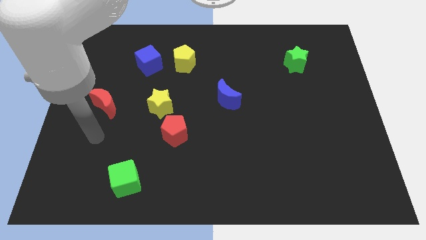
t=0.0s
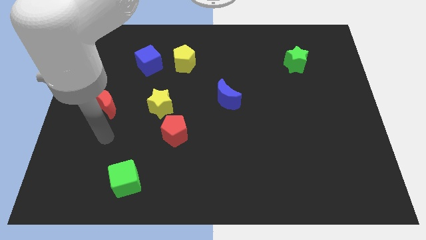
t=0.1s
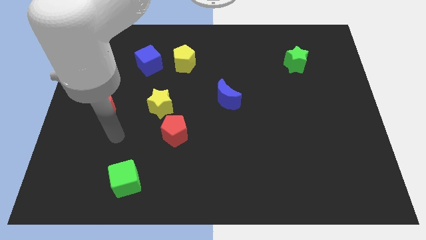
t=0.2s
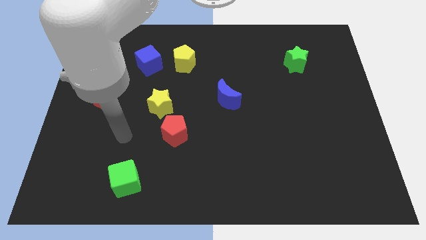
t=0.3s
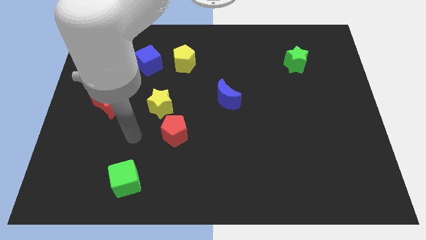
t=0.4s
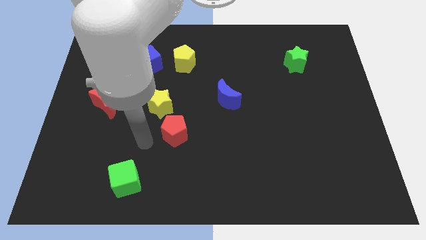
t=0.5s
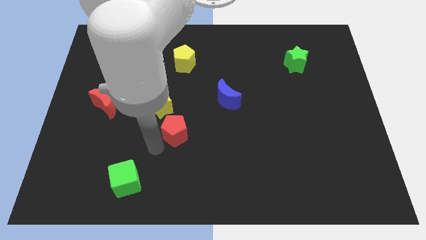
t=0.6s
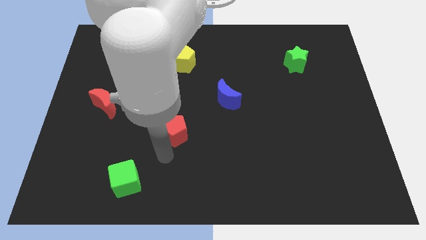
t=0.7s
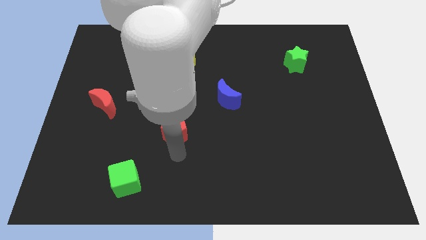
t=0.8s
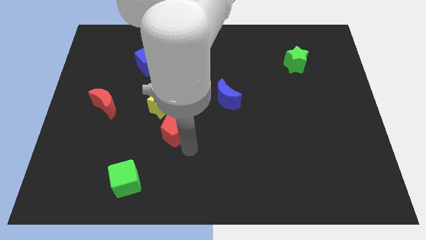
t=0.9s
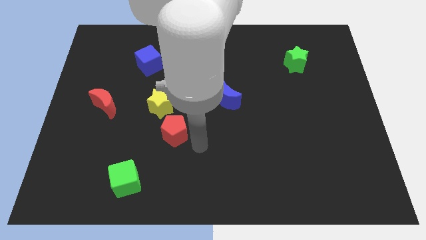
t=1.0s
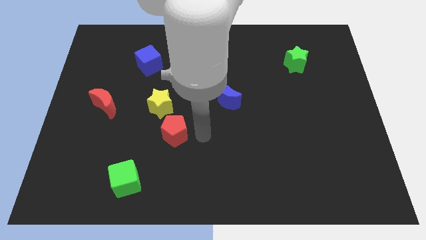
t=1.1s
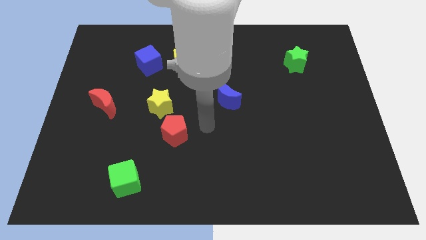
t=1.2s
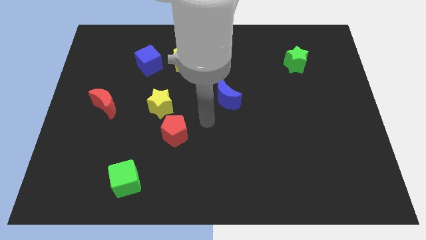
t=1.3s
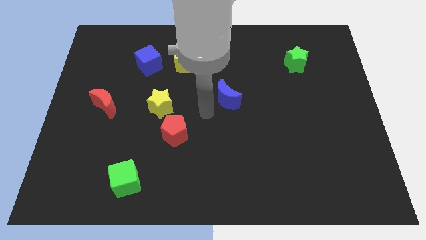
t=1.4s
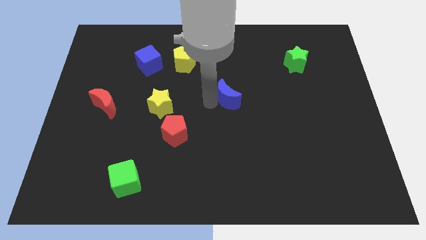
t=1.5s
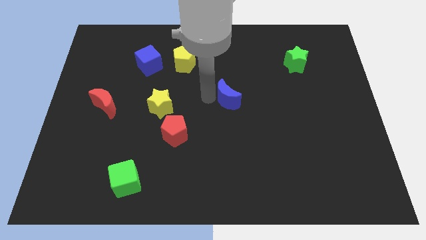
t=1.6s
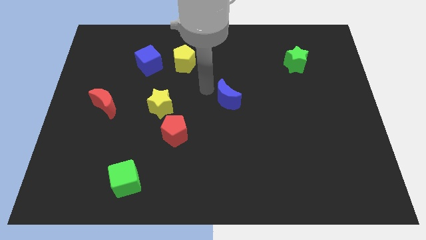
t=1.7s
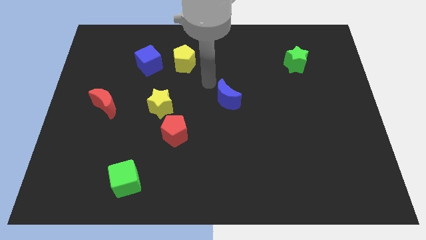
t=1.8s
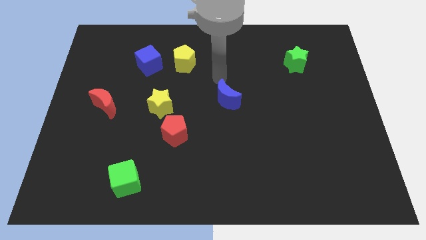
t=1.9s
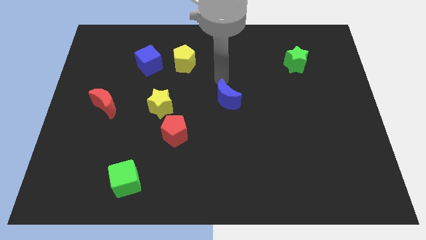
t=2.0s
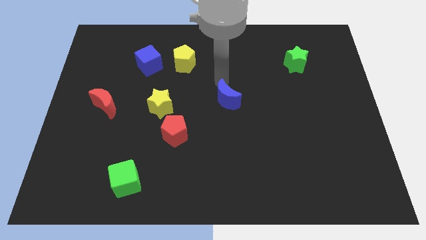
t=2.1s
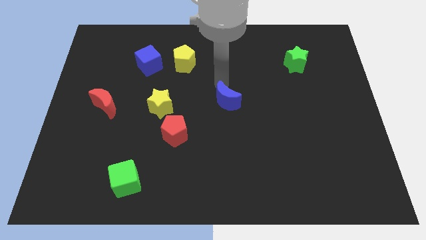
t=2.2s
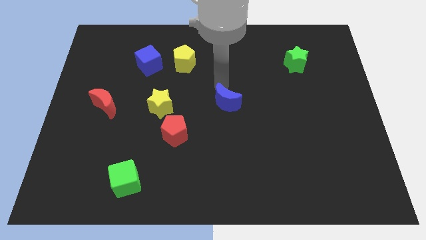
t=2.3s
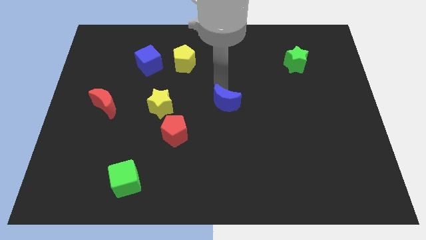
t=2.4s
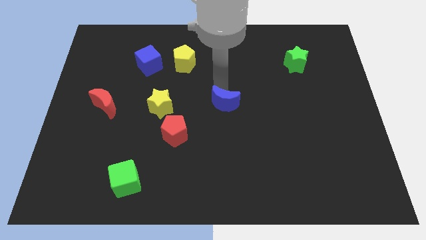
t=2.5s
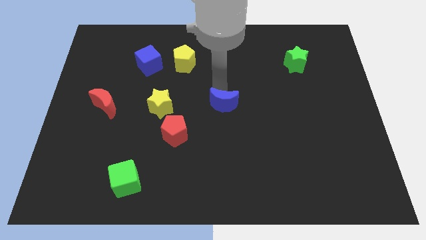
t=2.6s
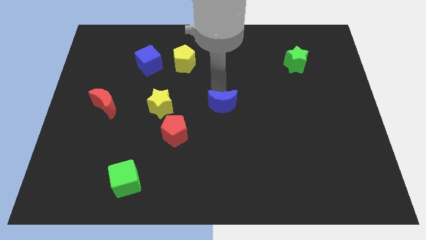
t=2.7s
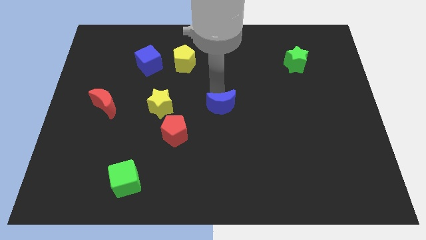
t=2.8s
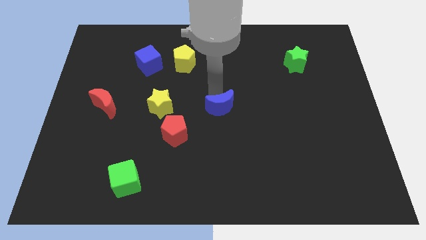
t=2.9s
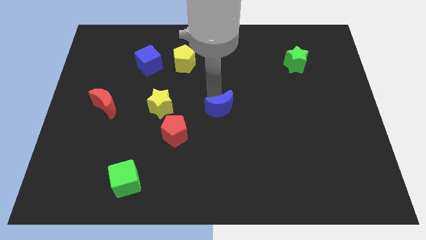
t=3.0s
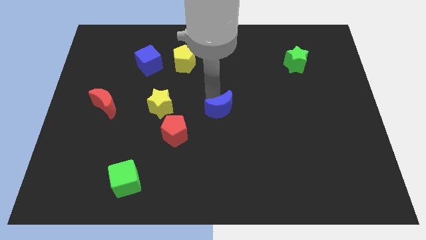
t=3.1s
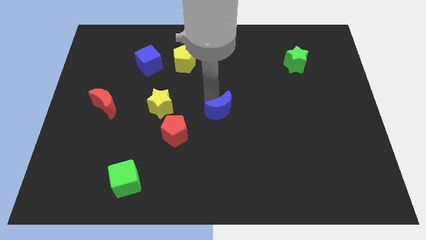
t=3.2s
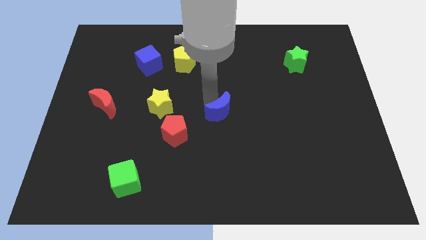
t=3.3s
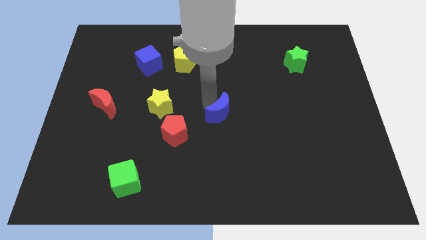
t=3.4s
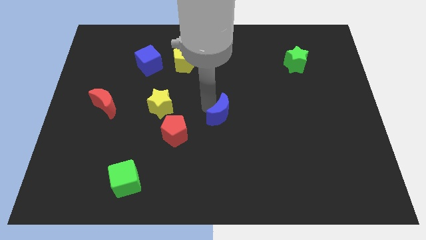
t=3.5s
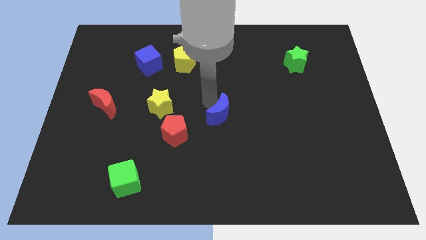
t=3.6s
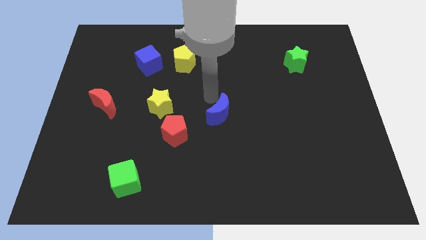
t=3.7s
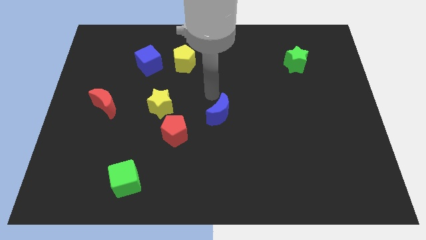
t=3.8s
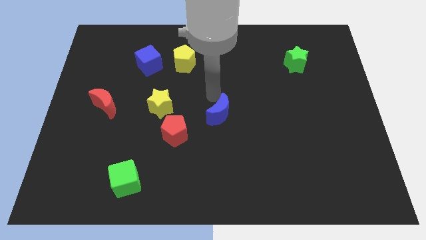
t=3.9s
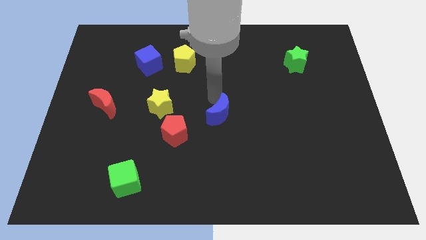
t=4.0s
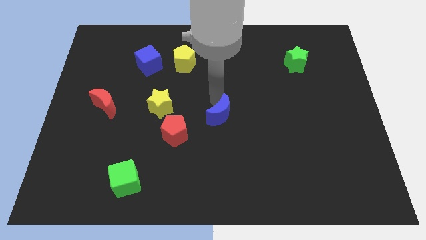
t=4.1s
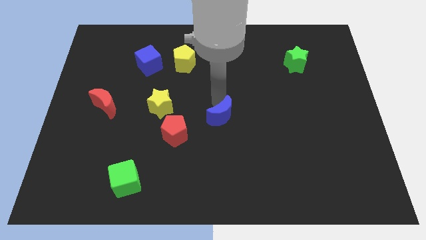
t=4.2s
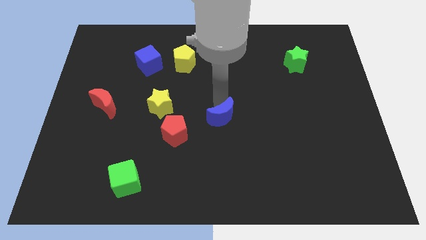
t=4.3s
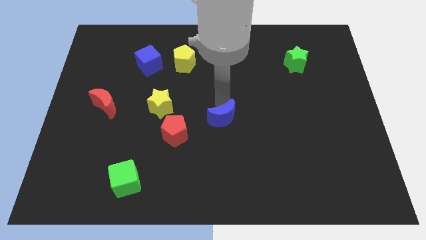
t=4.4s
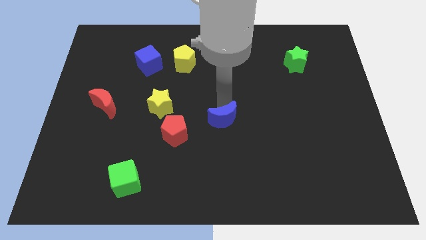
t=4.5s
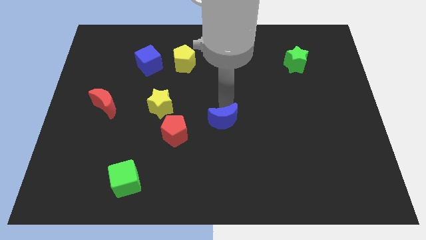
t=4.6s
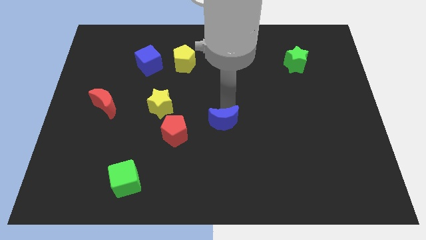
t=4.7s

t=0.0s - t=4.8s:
move the blue moon down a bit

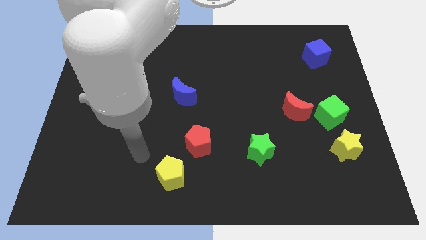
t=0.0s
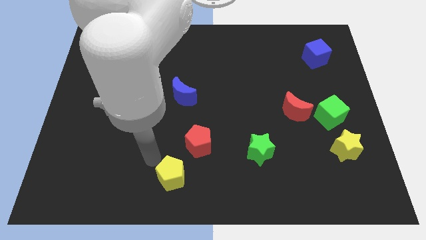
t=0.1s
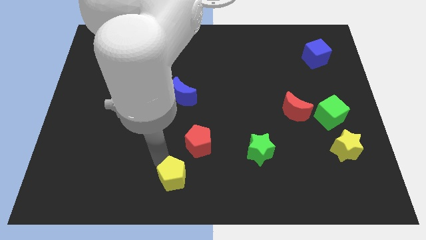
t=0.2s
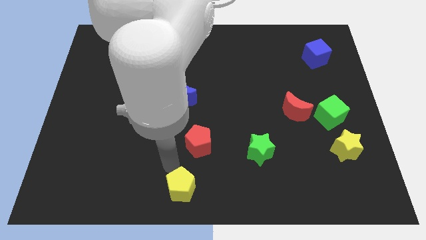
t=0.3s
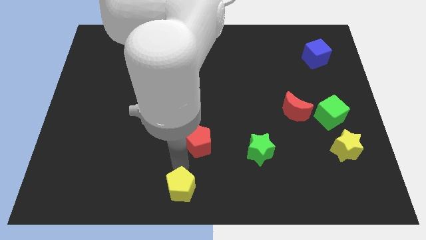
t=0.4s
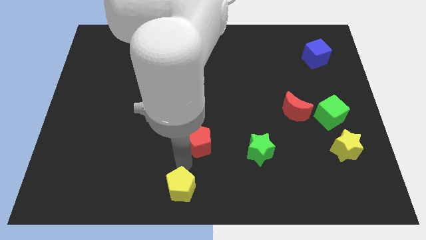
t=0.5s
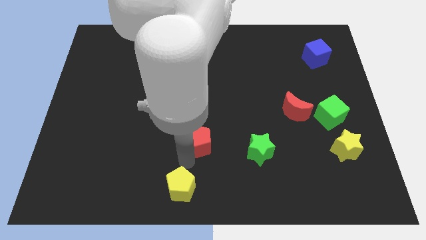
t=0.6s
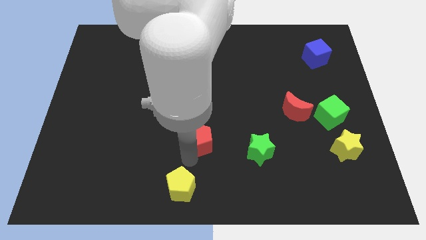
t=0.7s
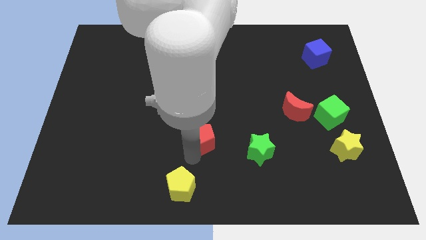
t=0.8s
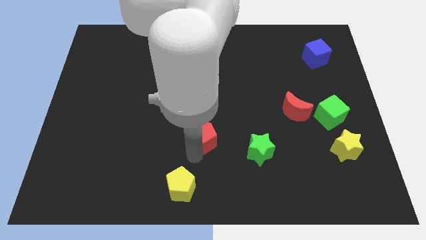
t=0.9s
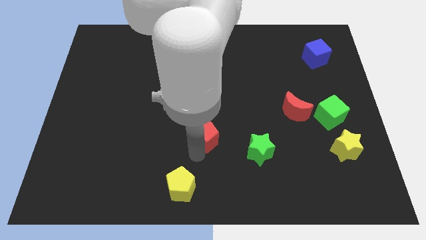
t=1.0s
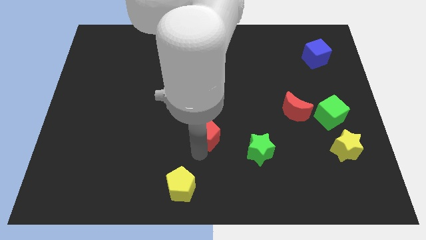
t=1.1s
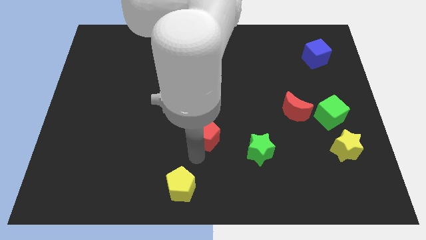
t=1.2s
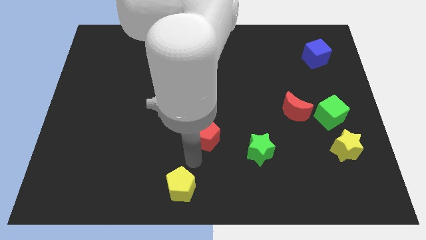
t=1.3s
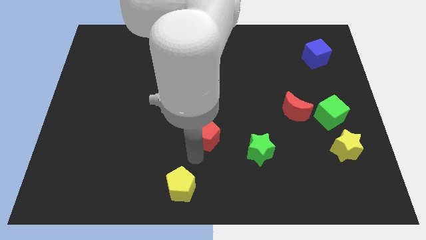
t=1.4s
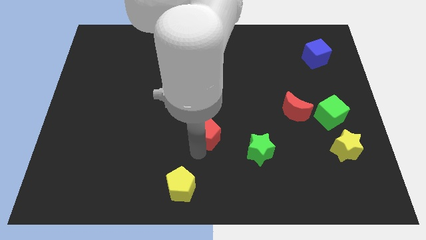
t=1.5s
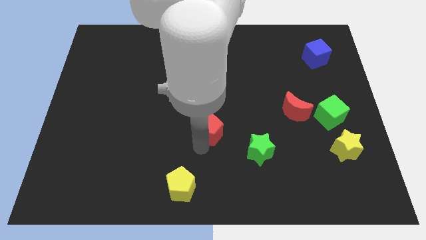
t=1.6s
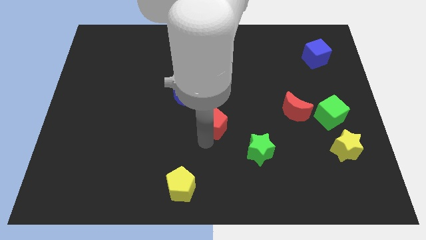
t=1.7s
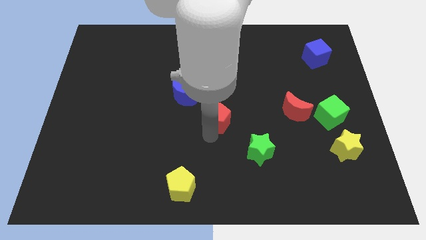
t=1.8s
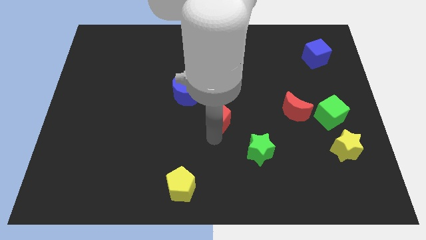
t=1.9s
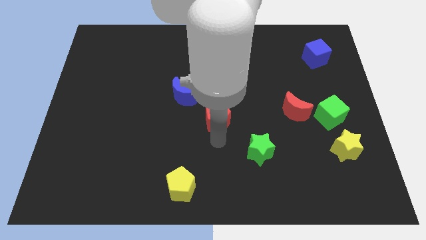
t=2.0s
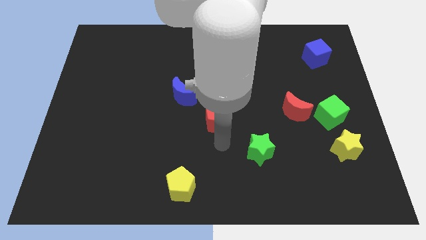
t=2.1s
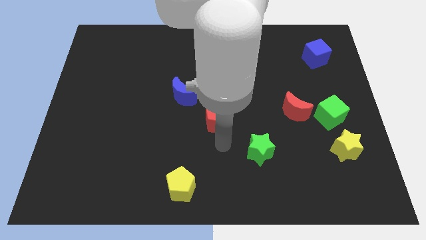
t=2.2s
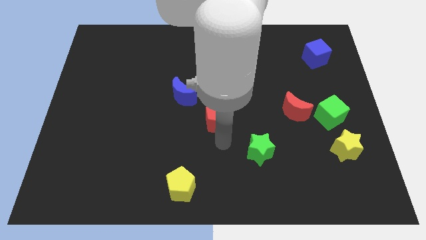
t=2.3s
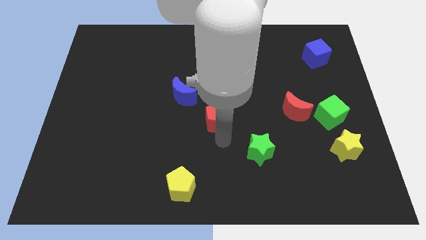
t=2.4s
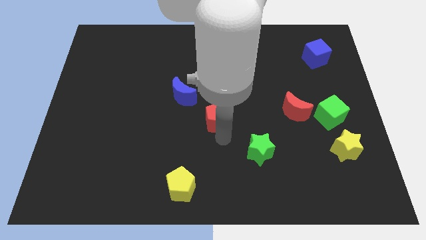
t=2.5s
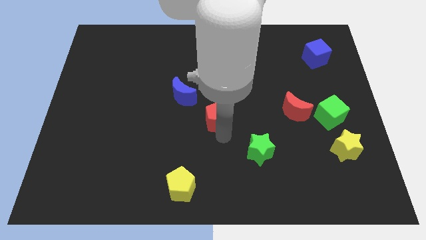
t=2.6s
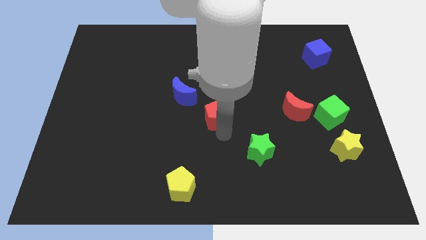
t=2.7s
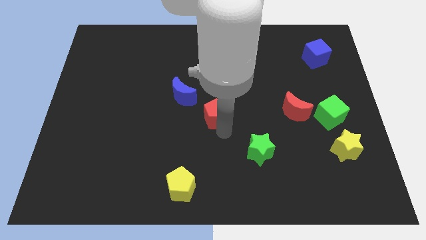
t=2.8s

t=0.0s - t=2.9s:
push the red pentagon upwards a little bit

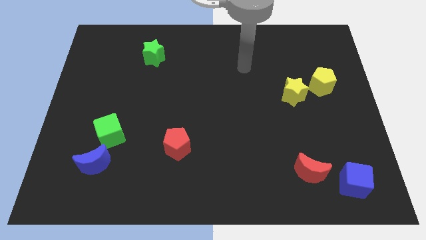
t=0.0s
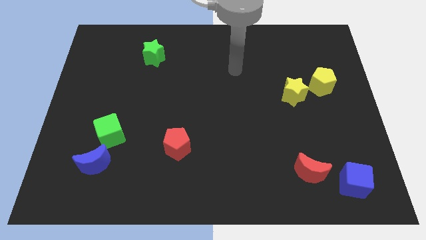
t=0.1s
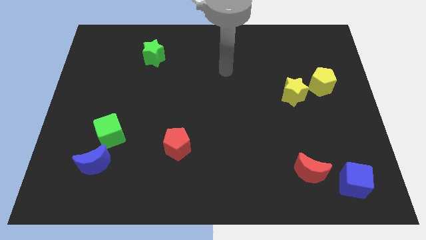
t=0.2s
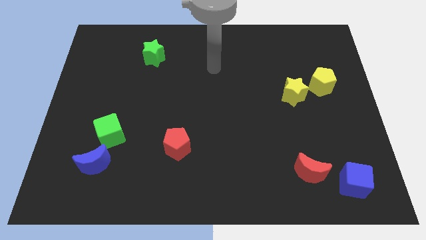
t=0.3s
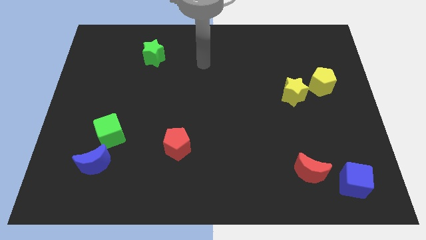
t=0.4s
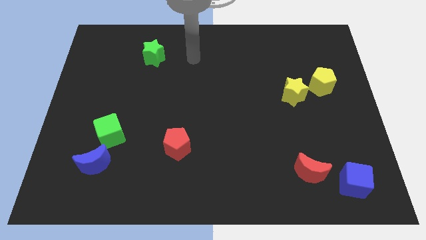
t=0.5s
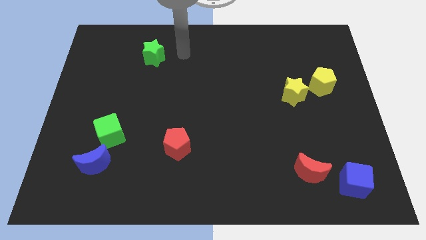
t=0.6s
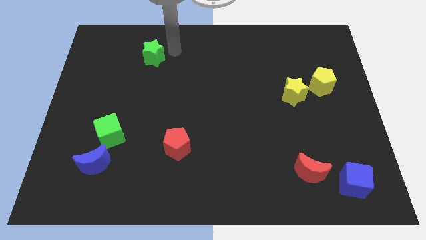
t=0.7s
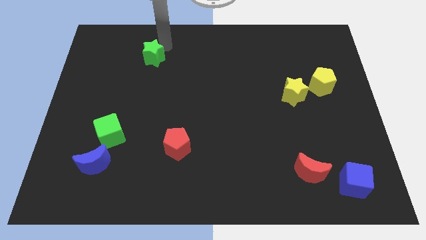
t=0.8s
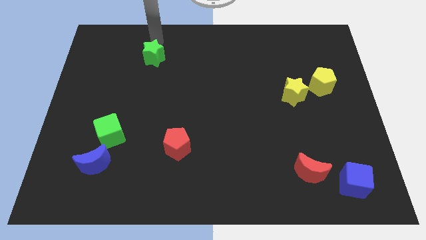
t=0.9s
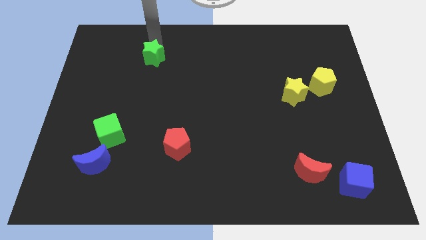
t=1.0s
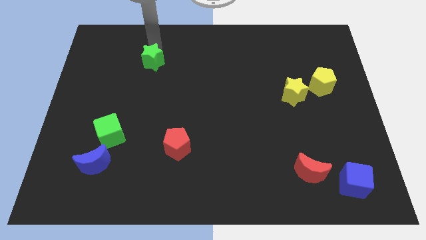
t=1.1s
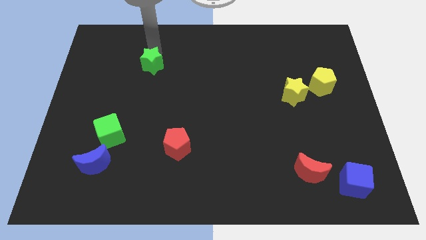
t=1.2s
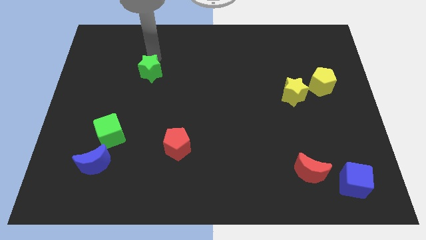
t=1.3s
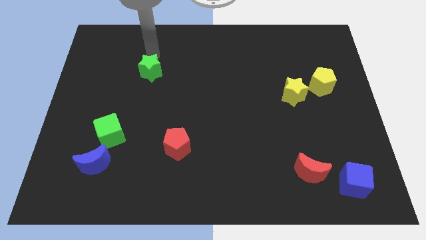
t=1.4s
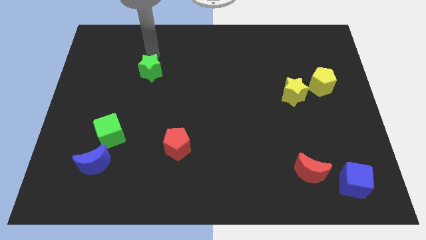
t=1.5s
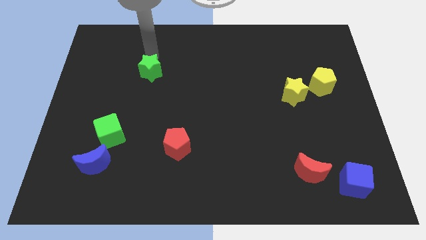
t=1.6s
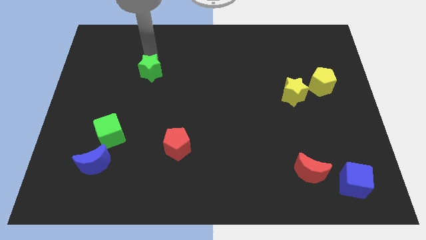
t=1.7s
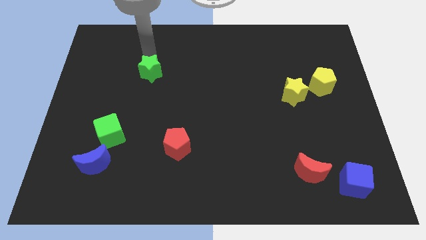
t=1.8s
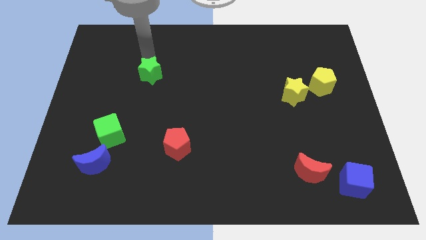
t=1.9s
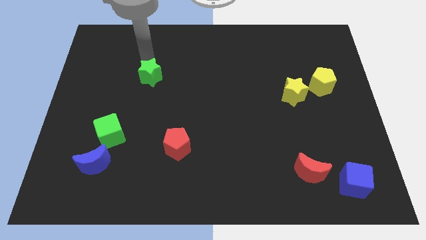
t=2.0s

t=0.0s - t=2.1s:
slide the green star down slightly
